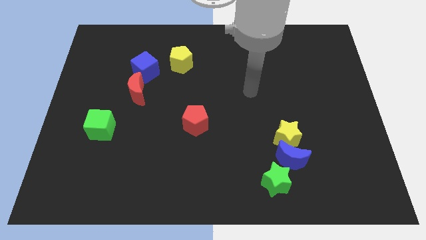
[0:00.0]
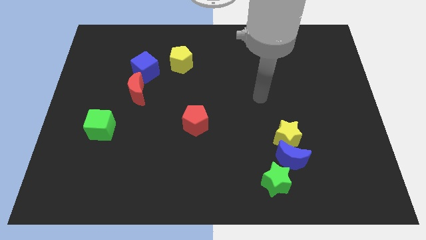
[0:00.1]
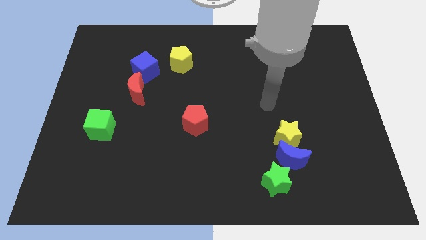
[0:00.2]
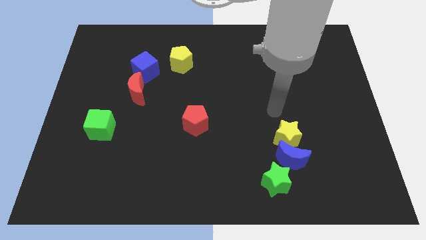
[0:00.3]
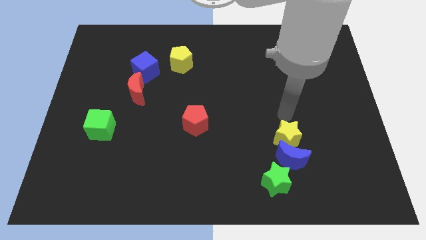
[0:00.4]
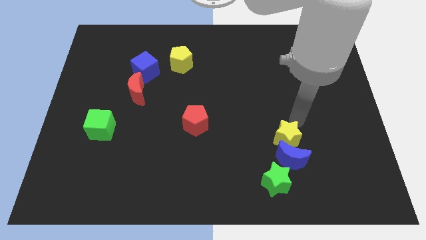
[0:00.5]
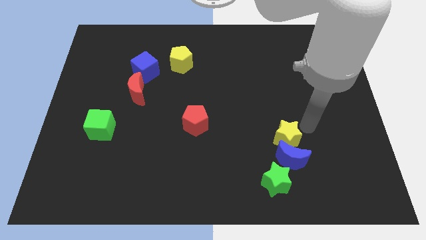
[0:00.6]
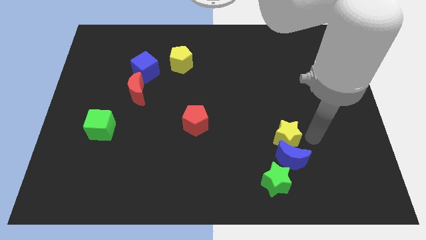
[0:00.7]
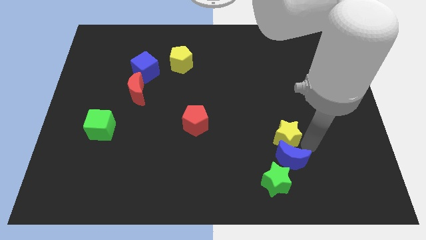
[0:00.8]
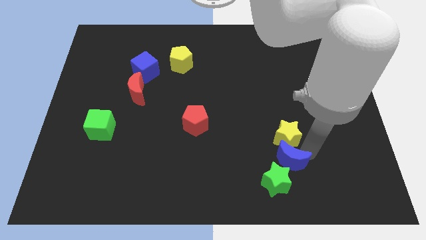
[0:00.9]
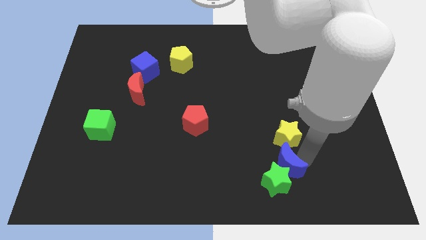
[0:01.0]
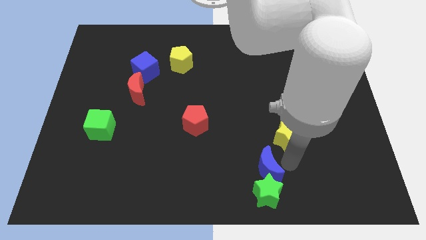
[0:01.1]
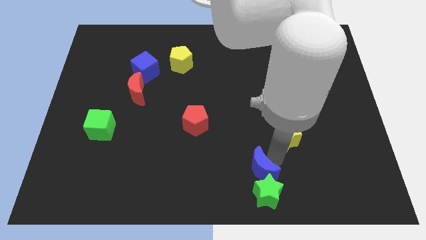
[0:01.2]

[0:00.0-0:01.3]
move the yellow star away from the blue moon

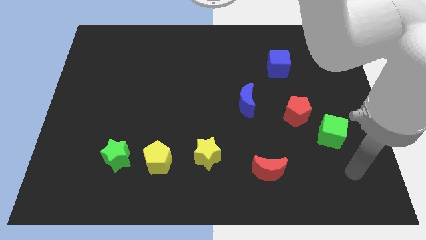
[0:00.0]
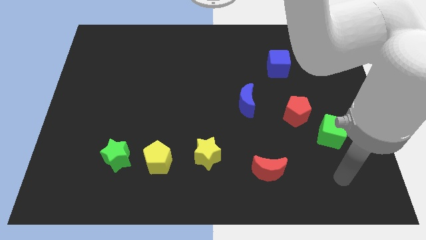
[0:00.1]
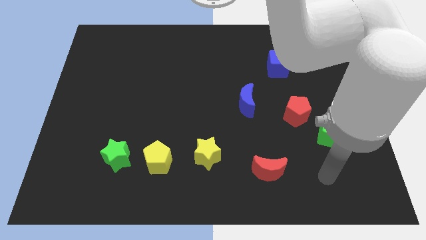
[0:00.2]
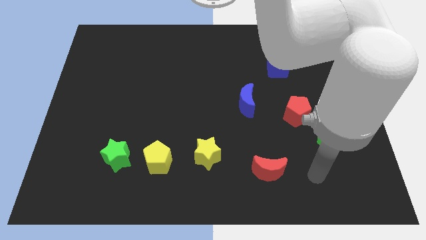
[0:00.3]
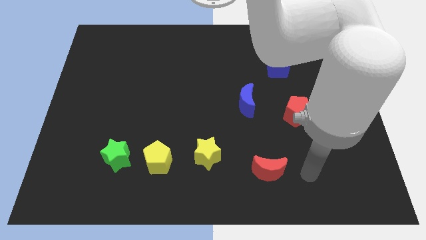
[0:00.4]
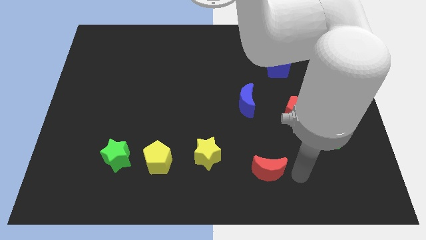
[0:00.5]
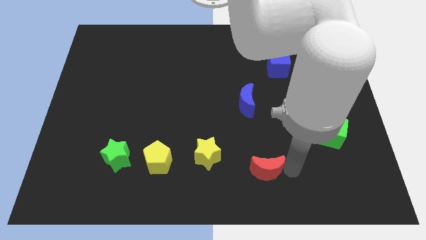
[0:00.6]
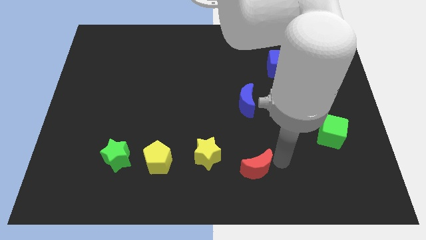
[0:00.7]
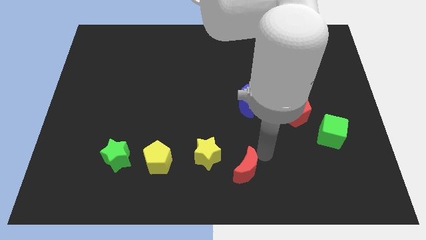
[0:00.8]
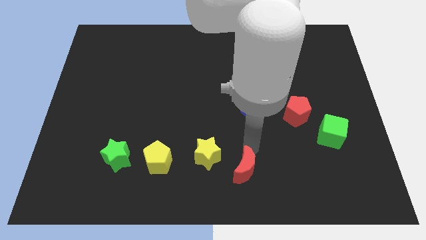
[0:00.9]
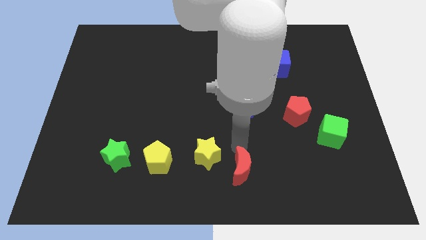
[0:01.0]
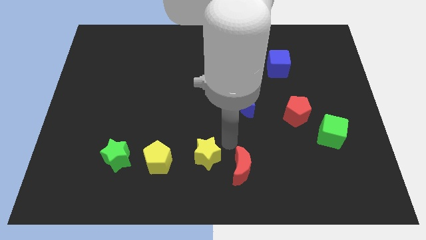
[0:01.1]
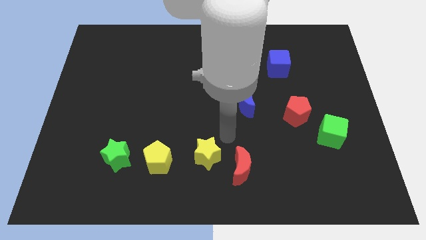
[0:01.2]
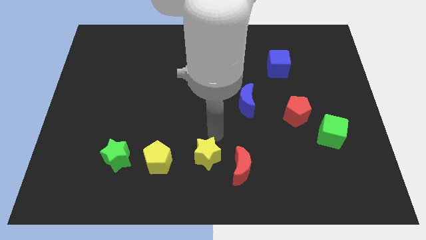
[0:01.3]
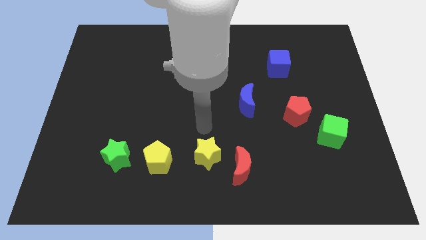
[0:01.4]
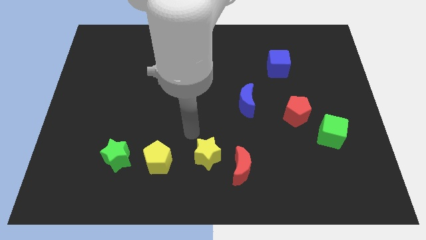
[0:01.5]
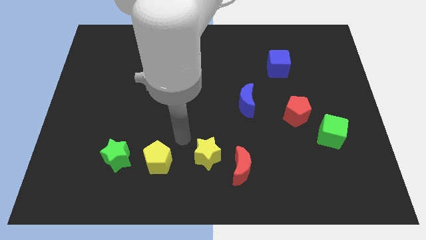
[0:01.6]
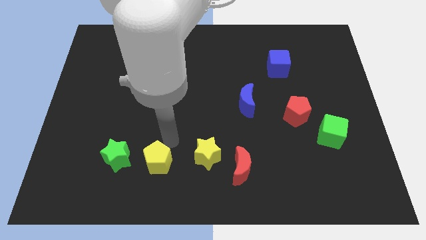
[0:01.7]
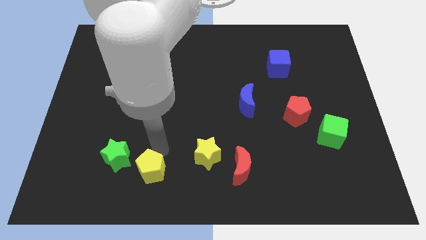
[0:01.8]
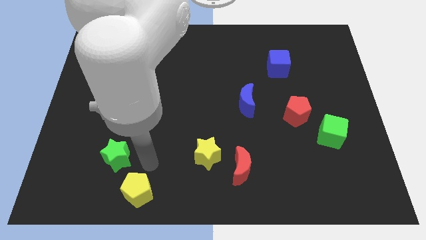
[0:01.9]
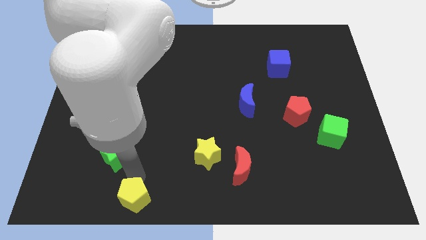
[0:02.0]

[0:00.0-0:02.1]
pull the green star apart from the yellow pentagon

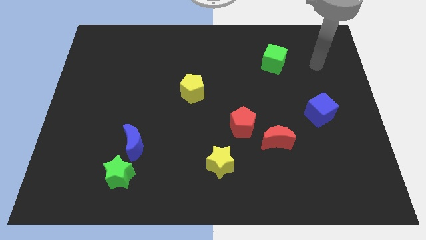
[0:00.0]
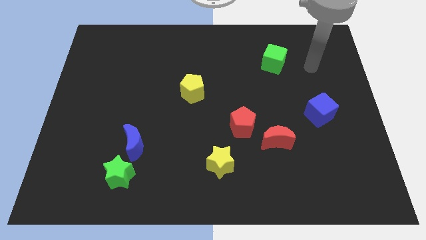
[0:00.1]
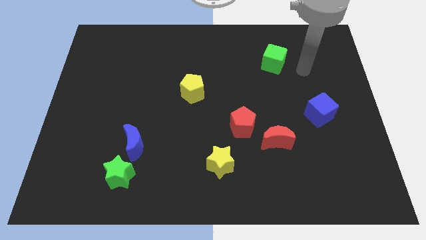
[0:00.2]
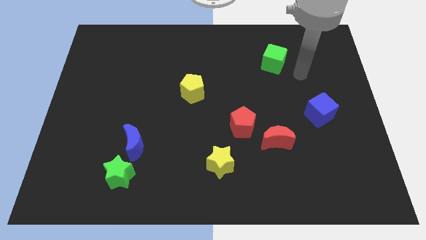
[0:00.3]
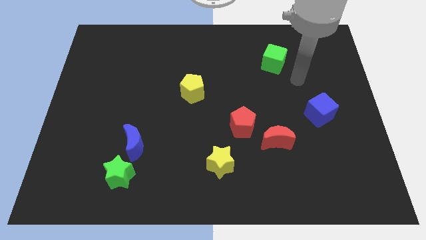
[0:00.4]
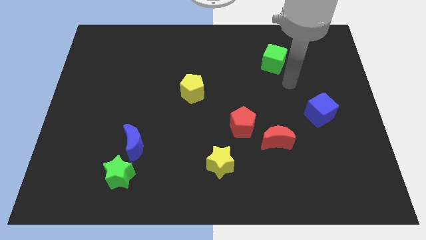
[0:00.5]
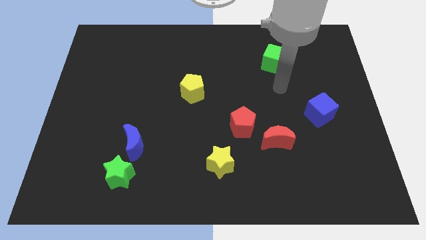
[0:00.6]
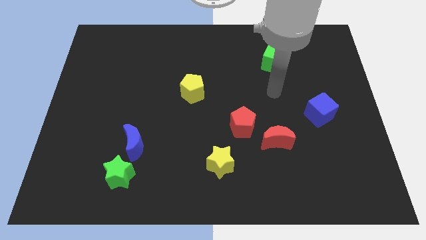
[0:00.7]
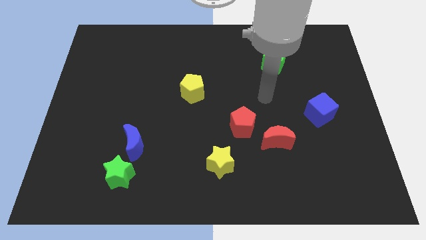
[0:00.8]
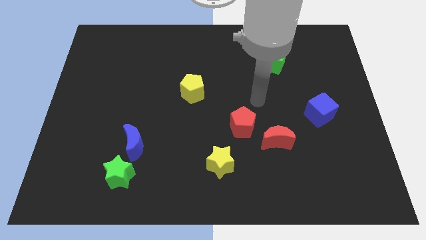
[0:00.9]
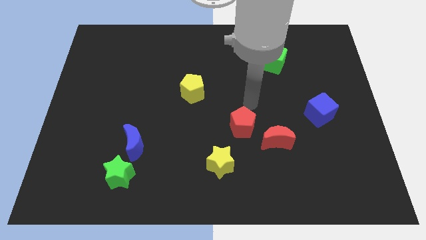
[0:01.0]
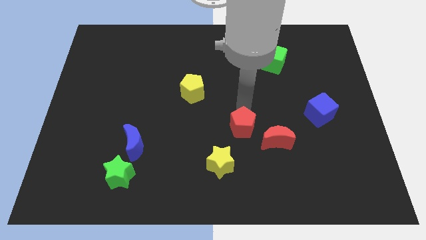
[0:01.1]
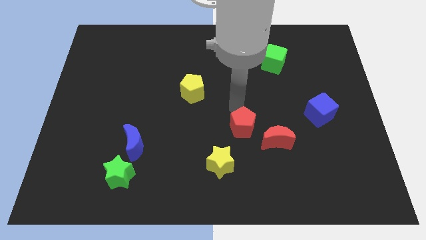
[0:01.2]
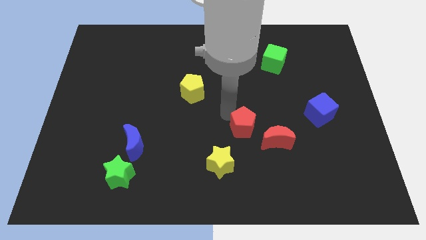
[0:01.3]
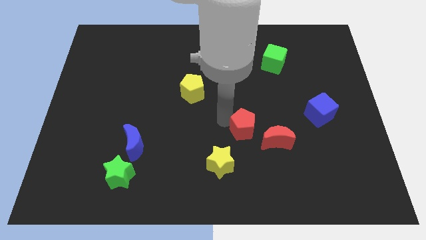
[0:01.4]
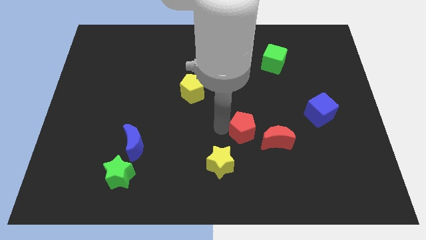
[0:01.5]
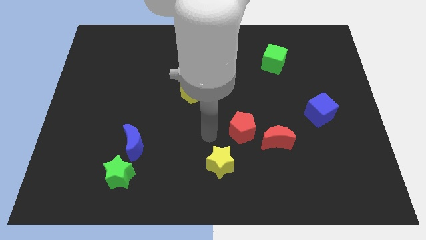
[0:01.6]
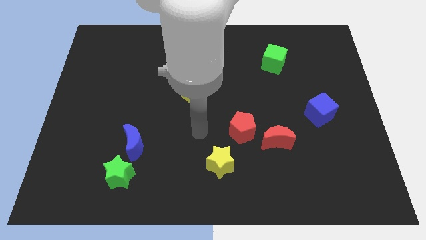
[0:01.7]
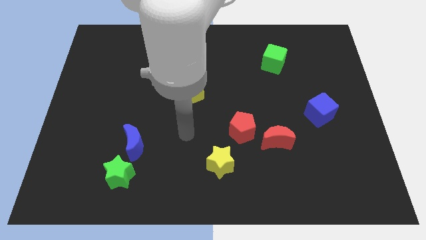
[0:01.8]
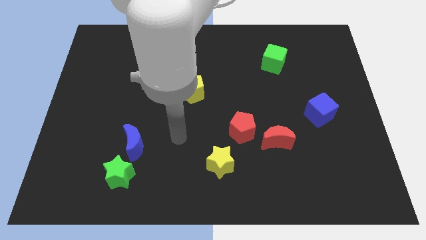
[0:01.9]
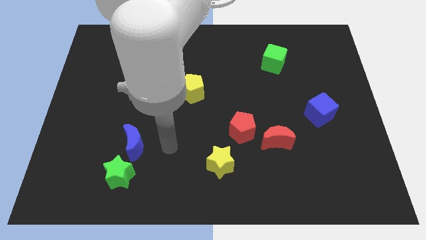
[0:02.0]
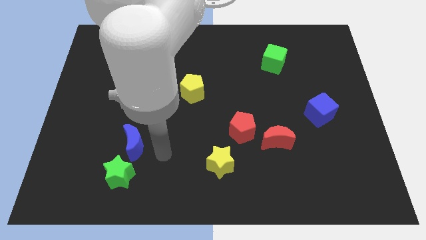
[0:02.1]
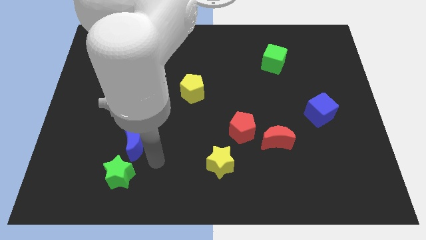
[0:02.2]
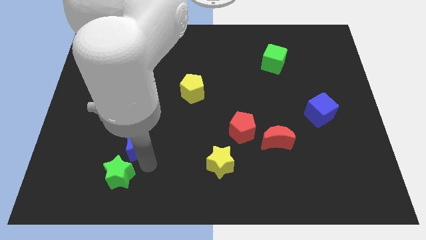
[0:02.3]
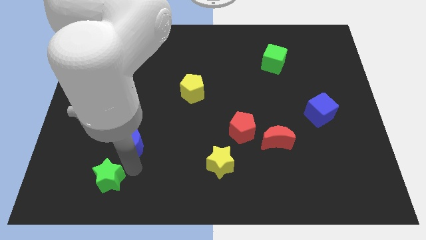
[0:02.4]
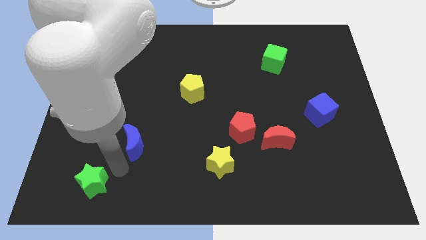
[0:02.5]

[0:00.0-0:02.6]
move the blue moon away from the green star

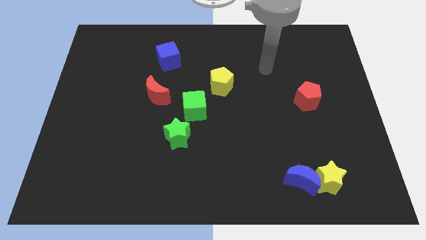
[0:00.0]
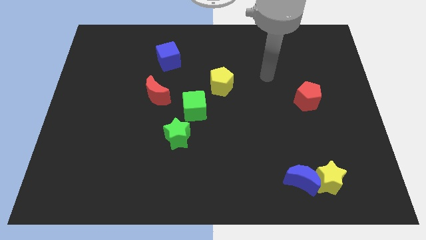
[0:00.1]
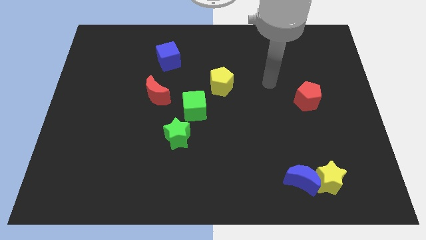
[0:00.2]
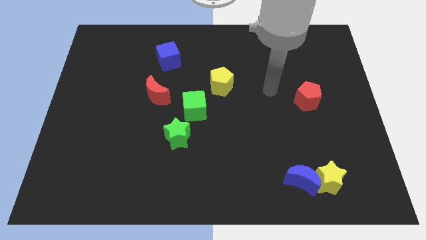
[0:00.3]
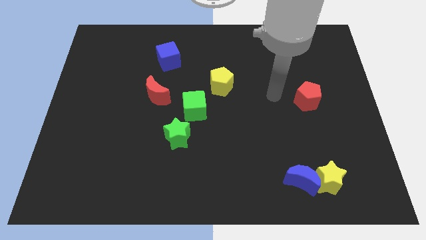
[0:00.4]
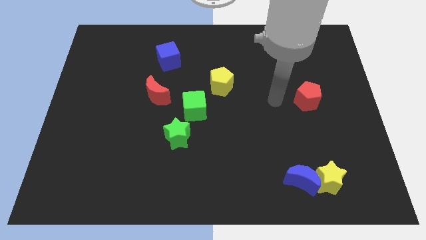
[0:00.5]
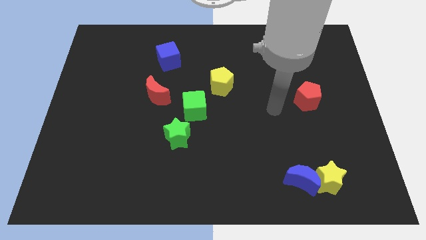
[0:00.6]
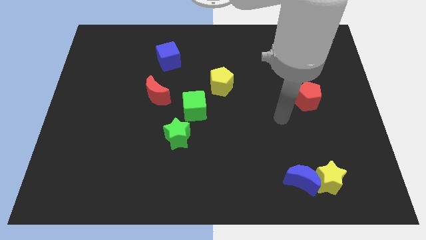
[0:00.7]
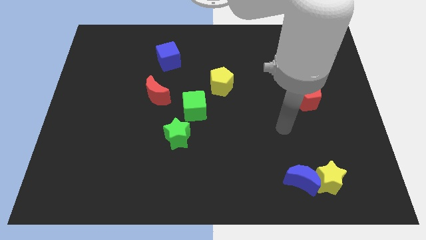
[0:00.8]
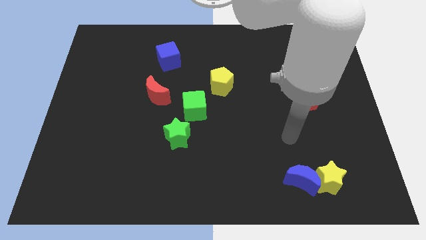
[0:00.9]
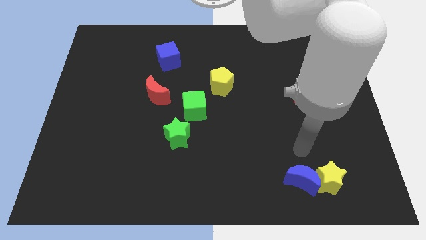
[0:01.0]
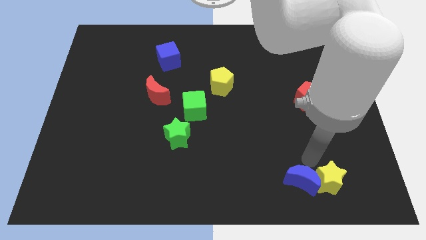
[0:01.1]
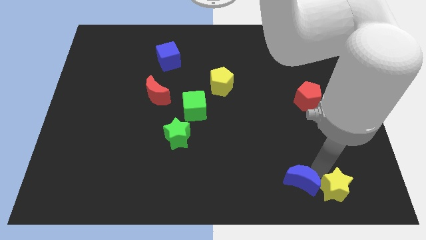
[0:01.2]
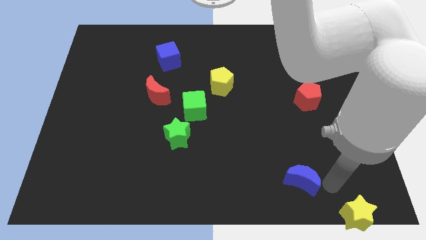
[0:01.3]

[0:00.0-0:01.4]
separate the blue moon from the yellow star

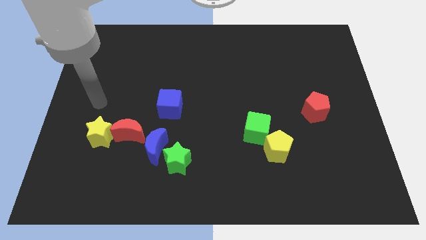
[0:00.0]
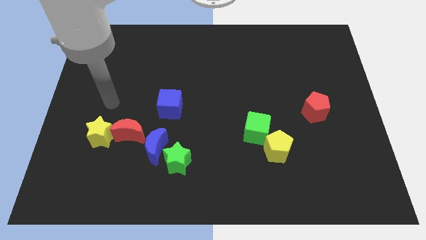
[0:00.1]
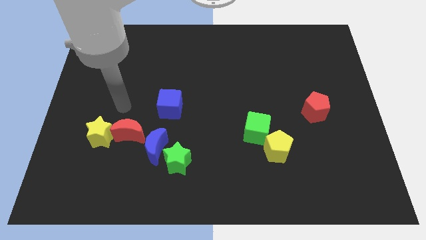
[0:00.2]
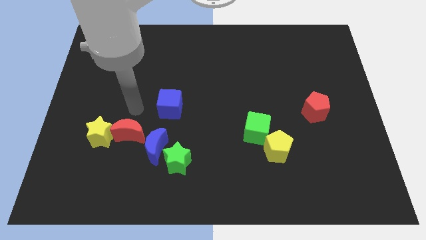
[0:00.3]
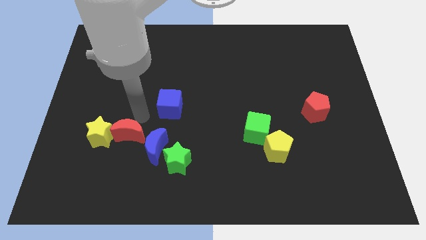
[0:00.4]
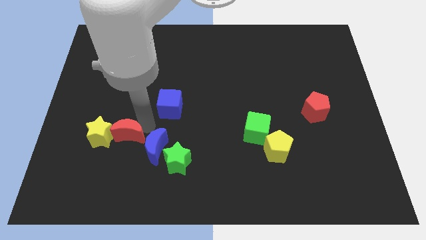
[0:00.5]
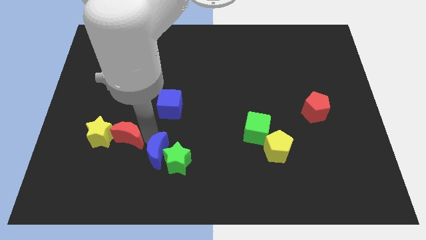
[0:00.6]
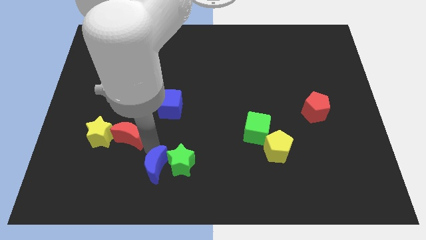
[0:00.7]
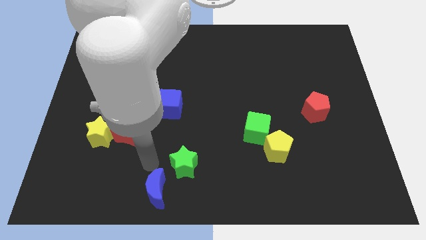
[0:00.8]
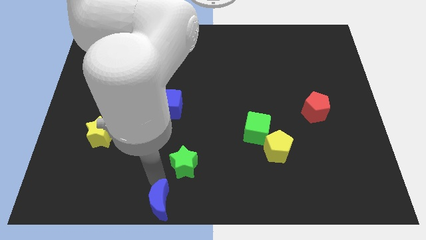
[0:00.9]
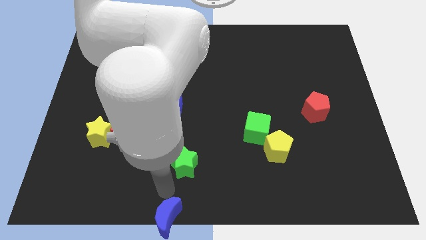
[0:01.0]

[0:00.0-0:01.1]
separate the green star from the blue moon

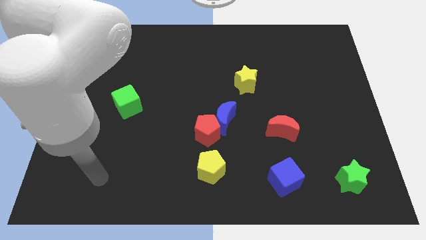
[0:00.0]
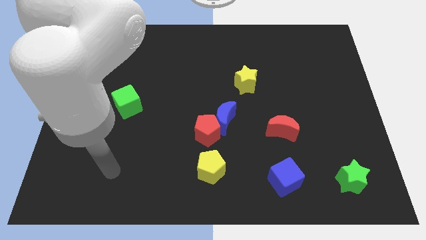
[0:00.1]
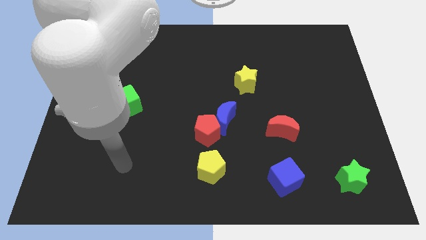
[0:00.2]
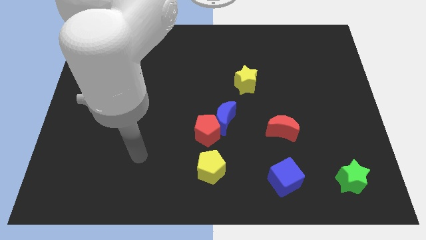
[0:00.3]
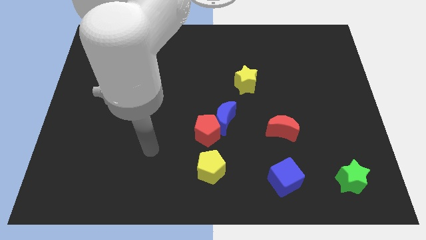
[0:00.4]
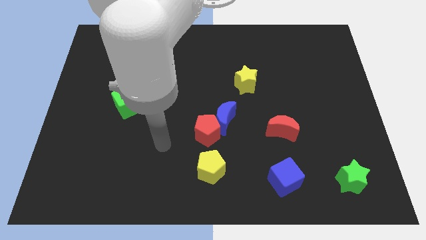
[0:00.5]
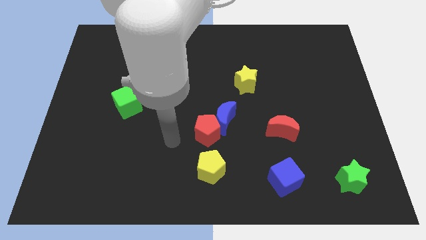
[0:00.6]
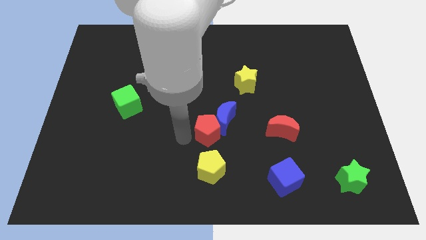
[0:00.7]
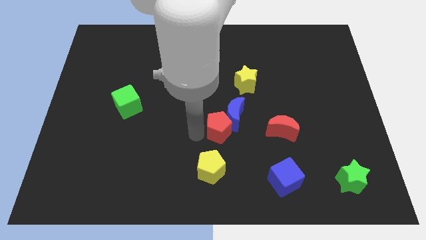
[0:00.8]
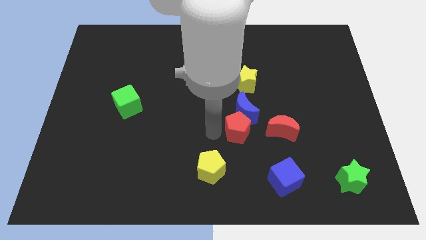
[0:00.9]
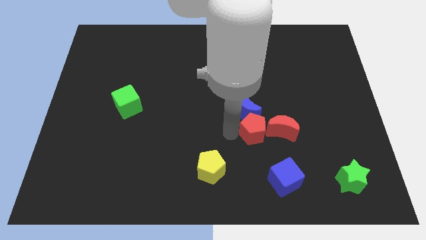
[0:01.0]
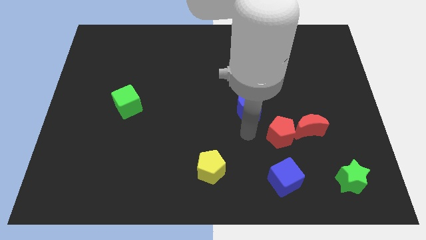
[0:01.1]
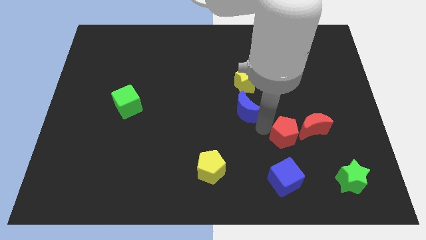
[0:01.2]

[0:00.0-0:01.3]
separate the blue moon from the red pentagon
